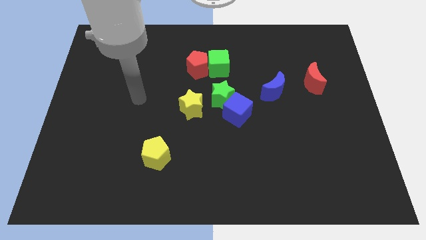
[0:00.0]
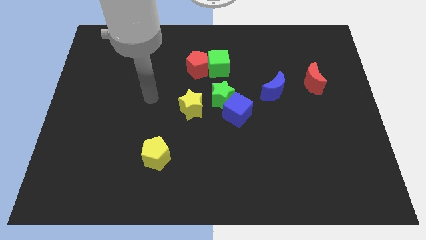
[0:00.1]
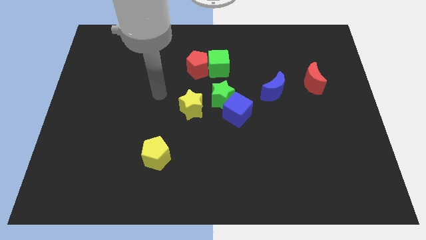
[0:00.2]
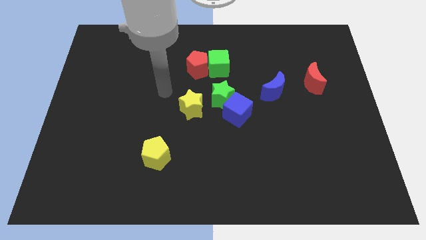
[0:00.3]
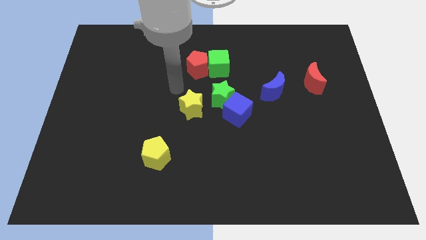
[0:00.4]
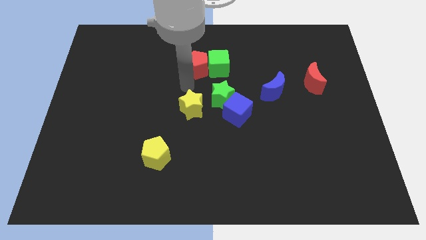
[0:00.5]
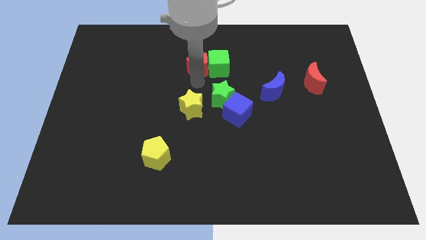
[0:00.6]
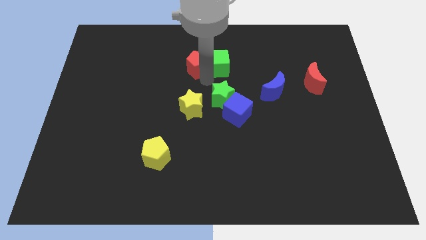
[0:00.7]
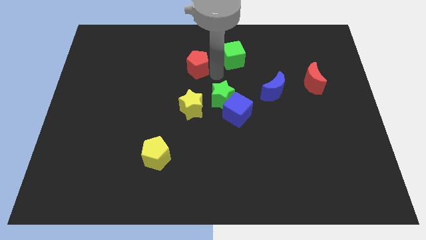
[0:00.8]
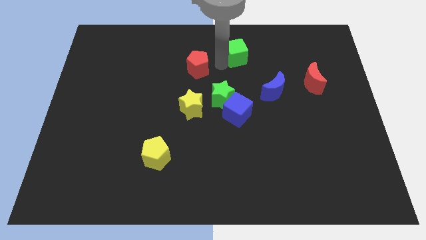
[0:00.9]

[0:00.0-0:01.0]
move the red pentagon away from the green cube

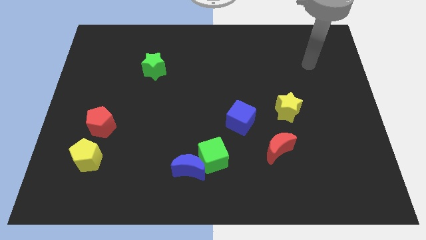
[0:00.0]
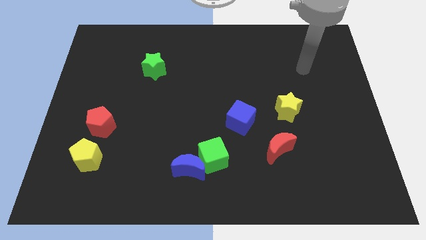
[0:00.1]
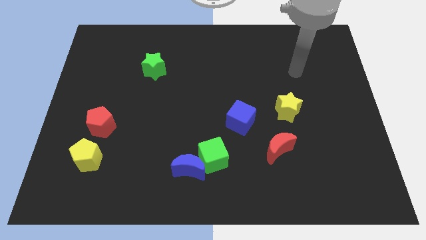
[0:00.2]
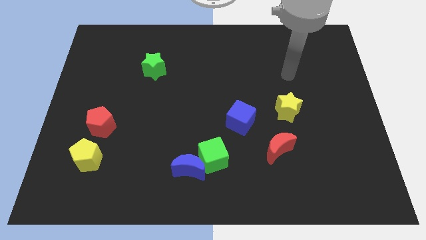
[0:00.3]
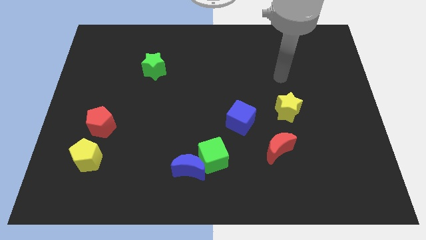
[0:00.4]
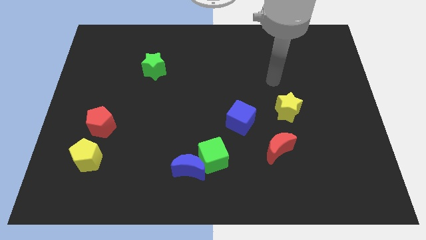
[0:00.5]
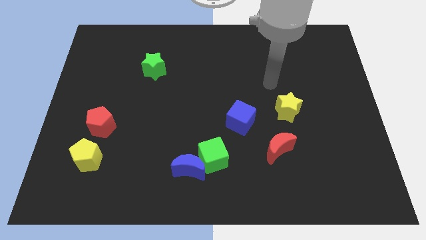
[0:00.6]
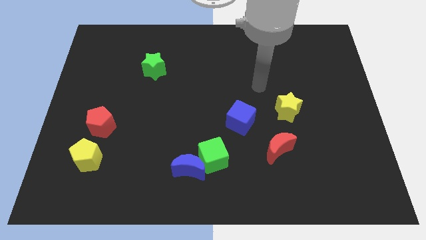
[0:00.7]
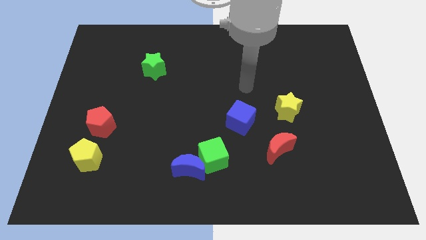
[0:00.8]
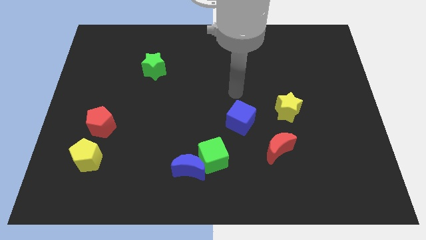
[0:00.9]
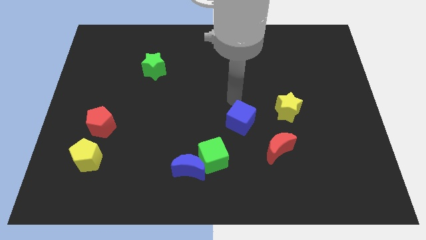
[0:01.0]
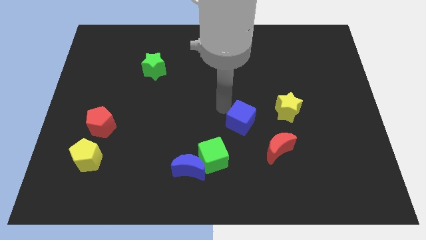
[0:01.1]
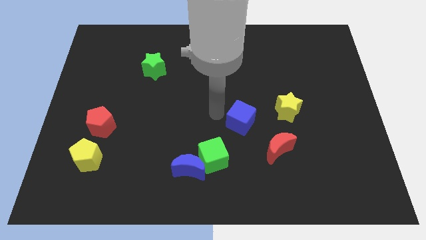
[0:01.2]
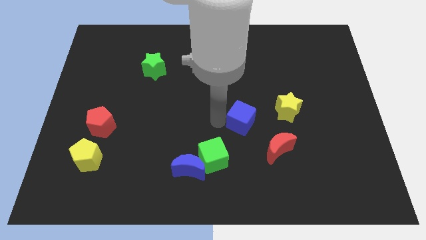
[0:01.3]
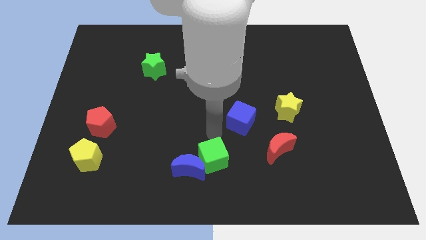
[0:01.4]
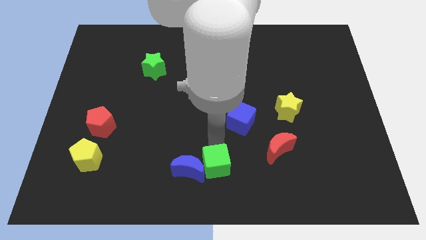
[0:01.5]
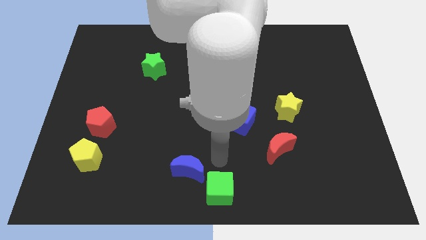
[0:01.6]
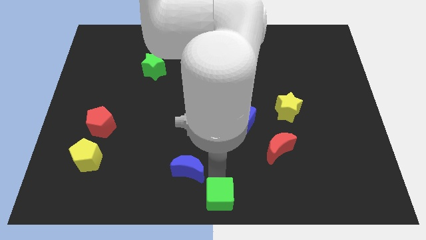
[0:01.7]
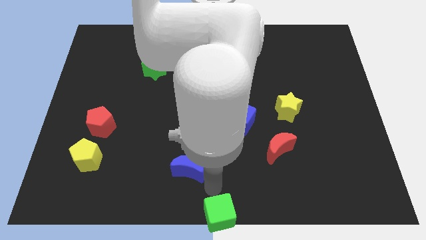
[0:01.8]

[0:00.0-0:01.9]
separate the blue moon from the green cube

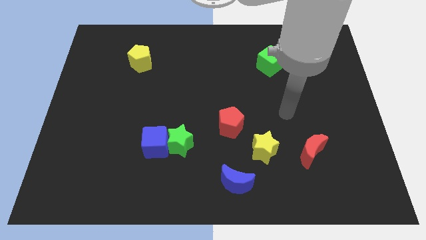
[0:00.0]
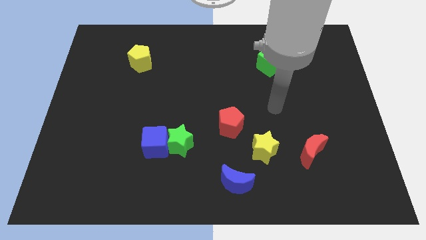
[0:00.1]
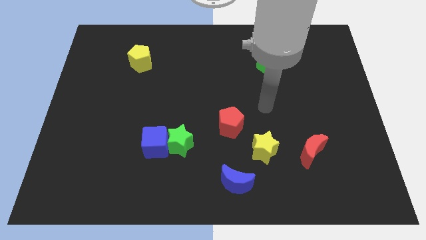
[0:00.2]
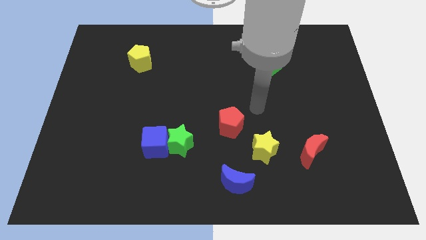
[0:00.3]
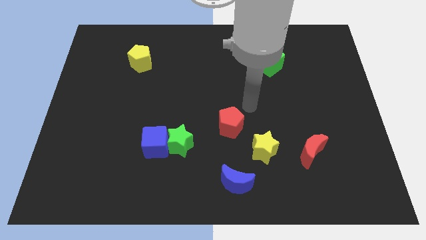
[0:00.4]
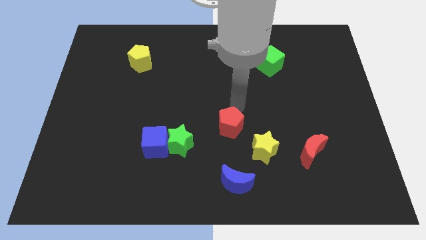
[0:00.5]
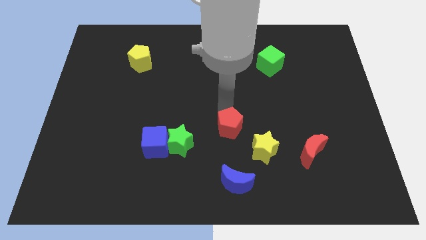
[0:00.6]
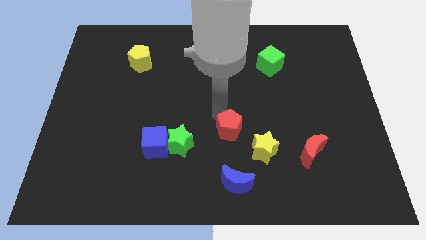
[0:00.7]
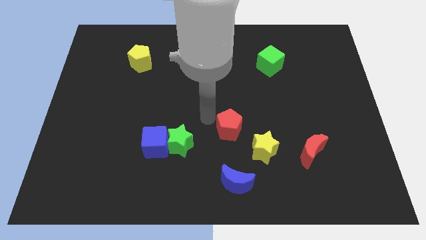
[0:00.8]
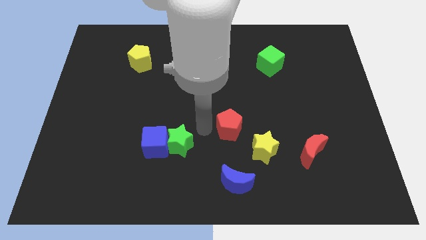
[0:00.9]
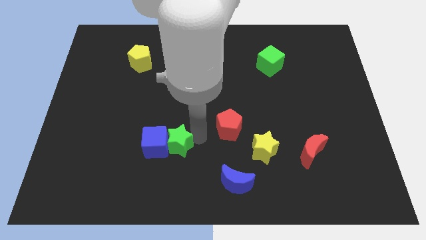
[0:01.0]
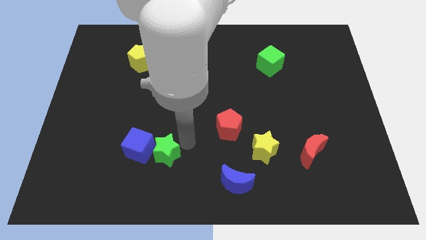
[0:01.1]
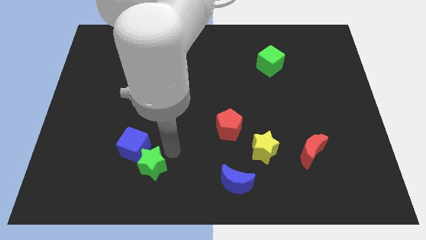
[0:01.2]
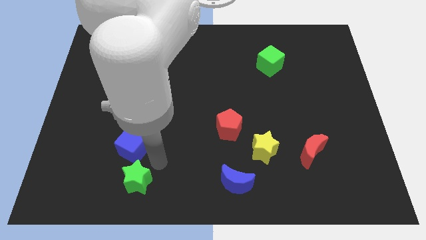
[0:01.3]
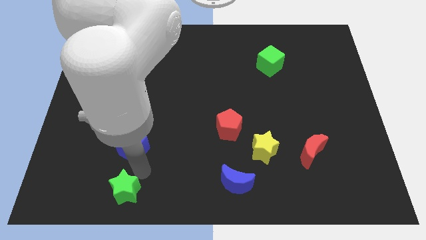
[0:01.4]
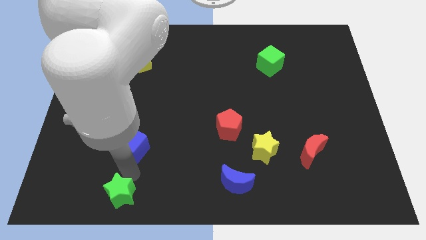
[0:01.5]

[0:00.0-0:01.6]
pull the blue cube apart from the green star

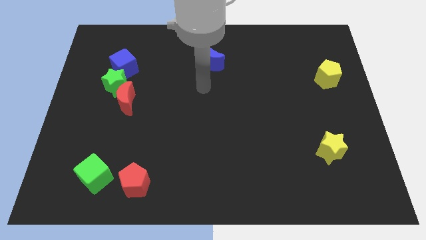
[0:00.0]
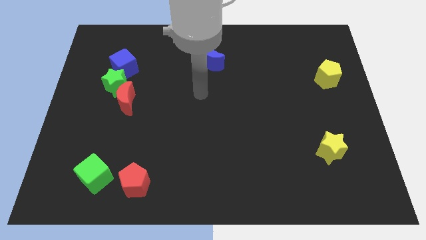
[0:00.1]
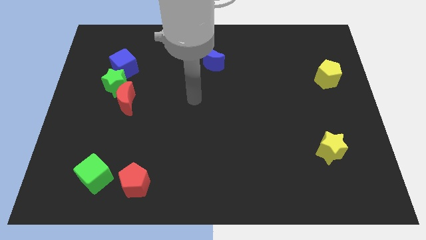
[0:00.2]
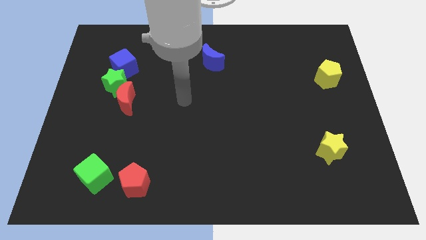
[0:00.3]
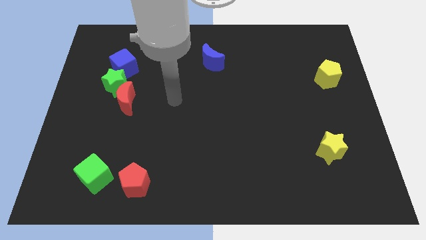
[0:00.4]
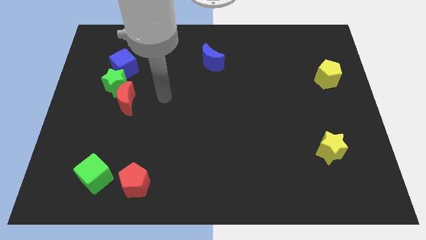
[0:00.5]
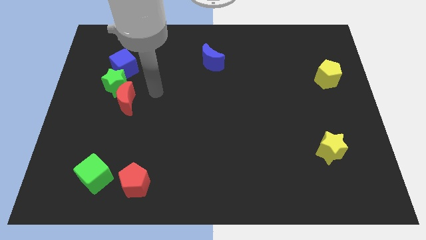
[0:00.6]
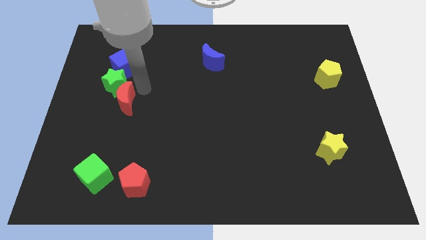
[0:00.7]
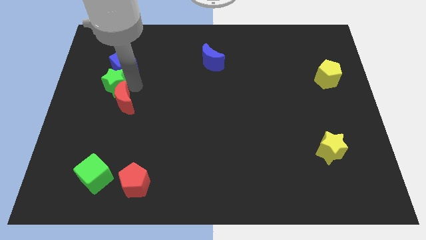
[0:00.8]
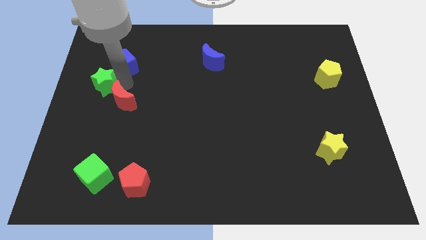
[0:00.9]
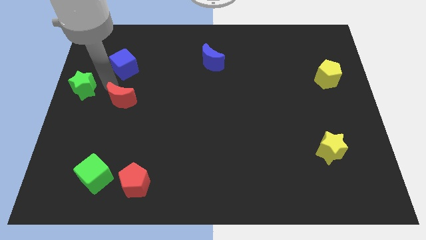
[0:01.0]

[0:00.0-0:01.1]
move the red moon away from the green star

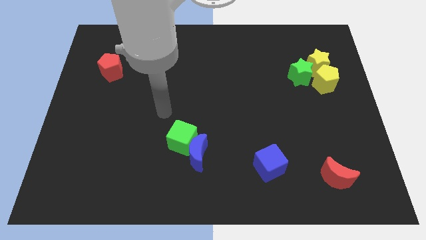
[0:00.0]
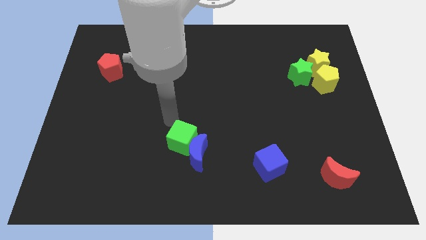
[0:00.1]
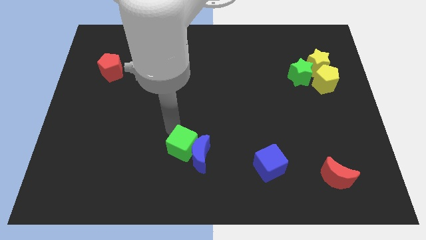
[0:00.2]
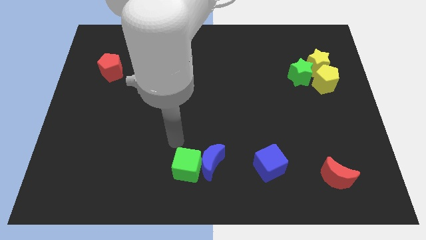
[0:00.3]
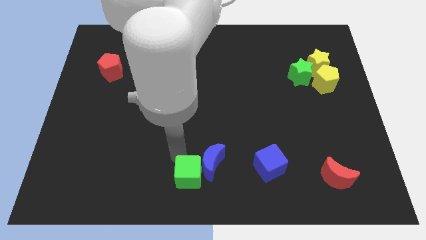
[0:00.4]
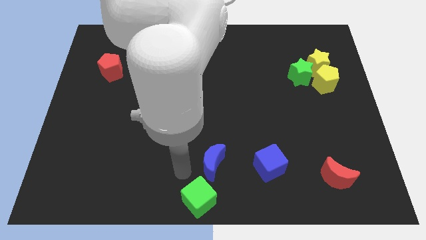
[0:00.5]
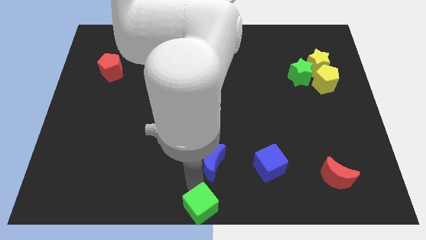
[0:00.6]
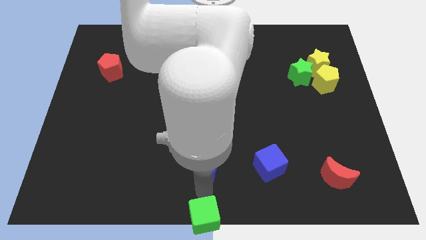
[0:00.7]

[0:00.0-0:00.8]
move the blue moon away from the green cube

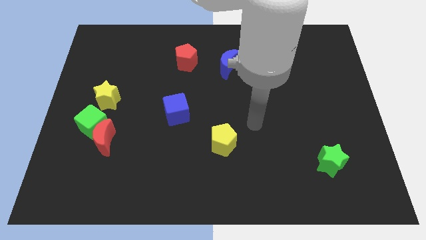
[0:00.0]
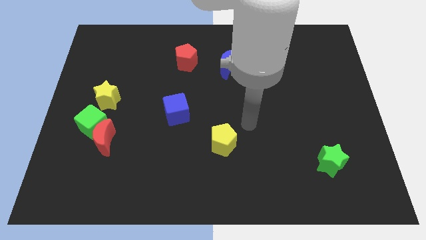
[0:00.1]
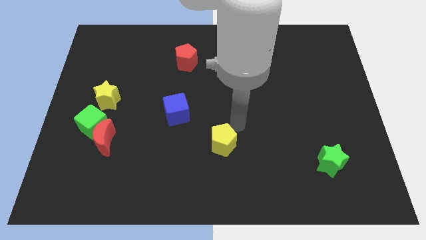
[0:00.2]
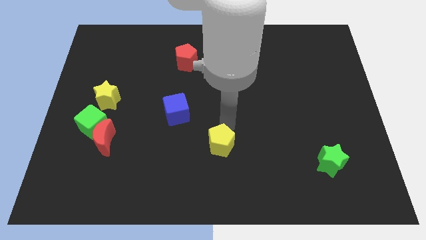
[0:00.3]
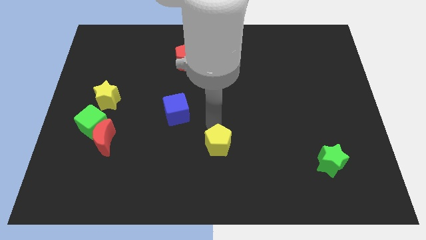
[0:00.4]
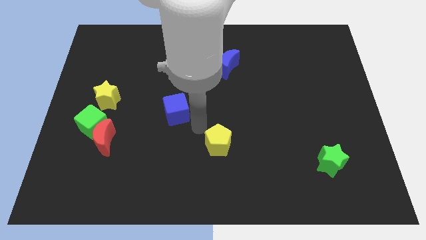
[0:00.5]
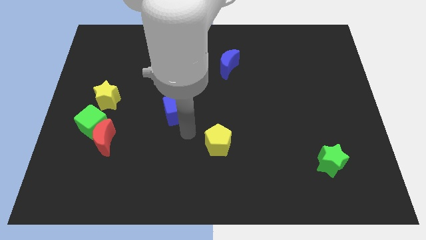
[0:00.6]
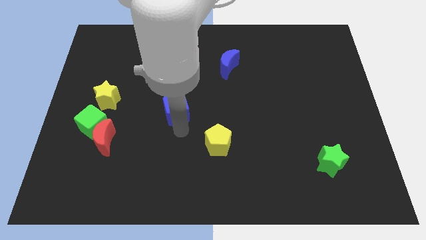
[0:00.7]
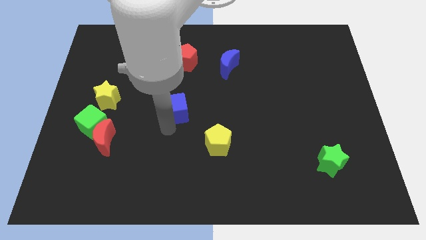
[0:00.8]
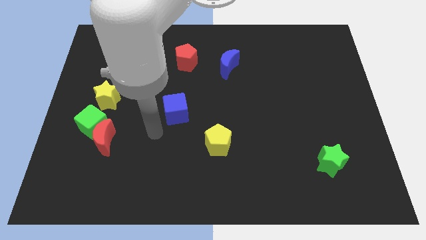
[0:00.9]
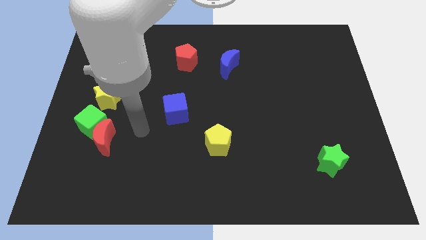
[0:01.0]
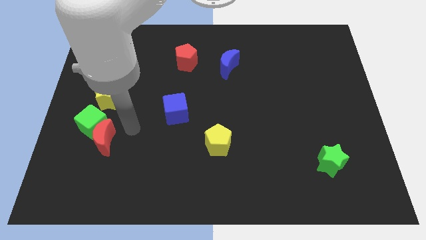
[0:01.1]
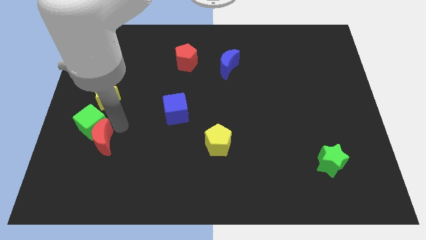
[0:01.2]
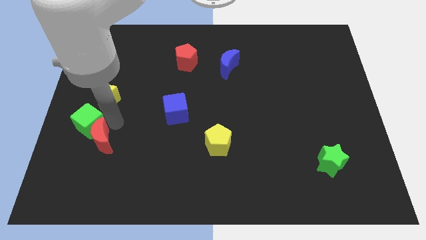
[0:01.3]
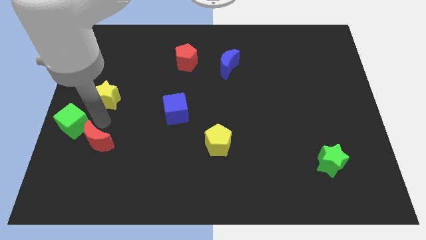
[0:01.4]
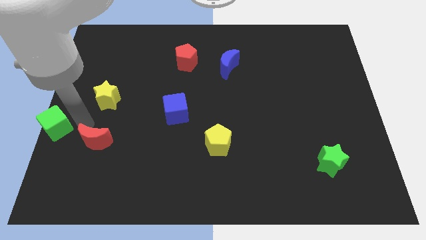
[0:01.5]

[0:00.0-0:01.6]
separate the red moon from the green cube

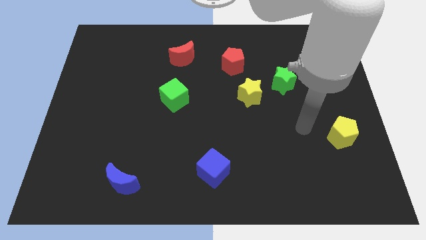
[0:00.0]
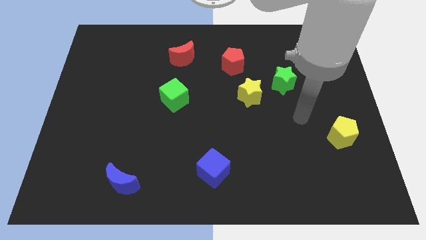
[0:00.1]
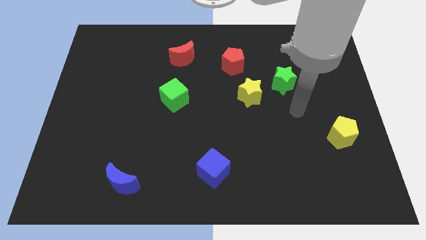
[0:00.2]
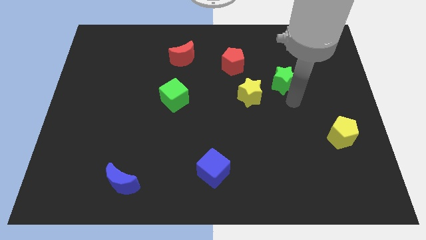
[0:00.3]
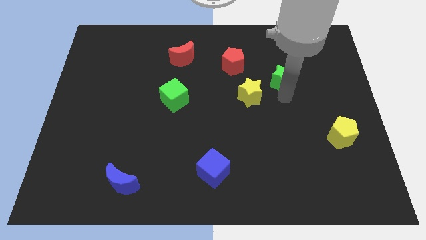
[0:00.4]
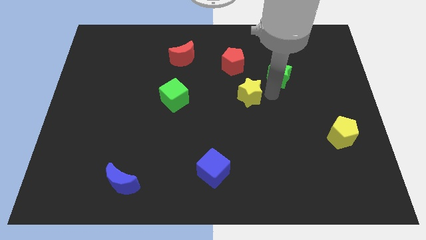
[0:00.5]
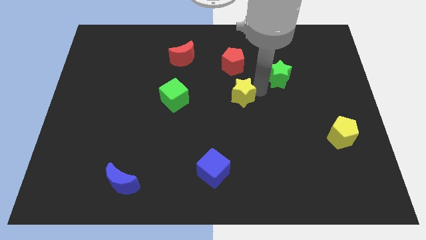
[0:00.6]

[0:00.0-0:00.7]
pull the green star apart from the yellow star

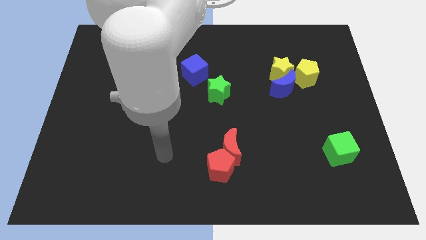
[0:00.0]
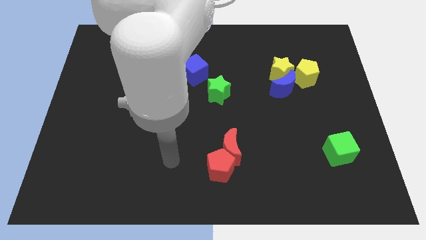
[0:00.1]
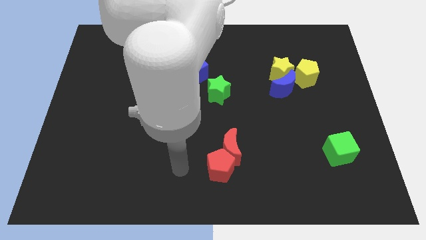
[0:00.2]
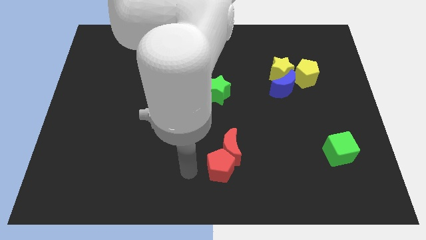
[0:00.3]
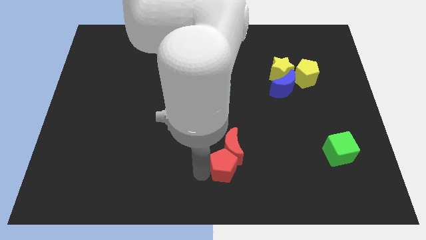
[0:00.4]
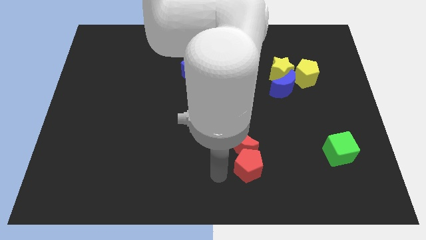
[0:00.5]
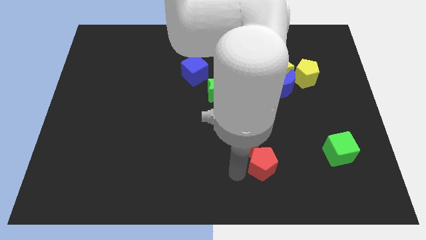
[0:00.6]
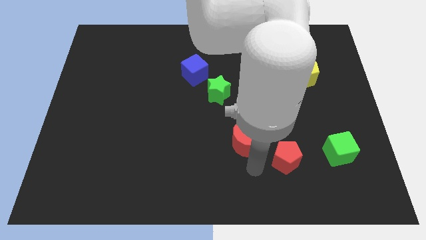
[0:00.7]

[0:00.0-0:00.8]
separate the red moon from the red pentagon

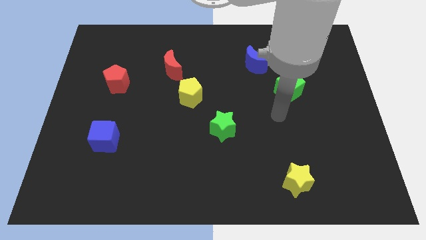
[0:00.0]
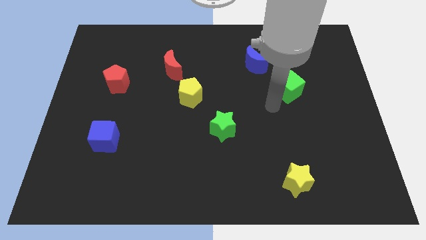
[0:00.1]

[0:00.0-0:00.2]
pull the red moon apart from the yellow pentagon
